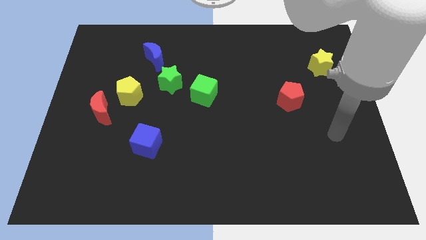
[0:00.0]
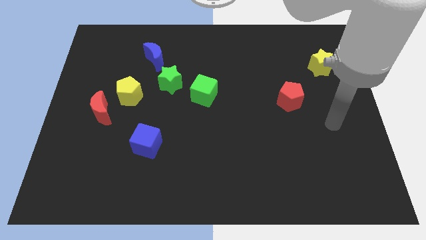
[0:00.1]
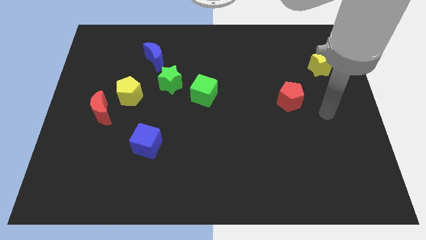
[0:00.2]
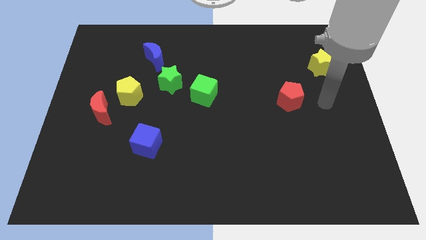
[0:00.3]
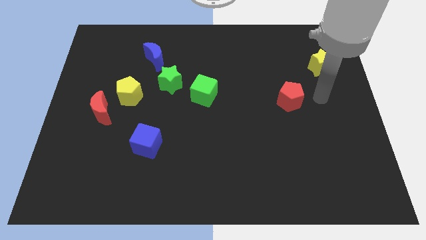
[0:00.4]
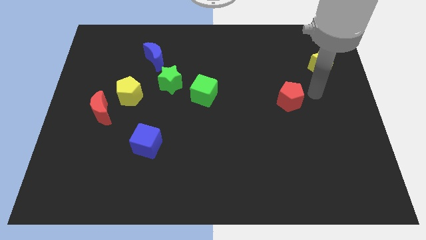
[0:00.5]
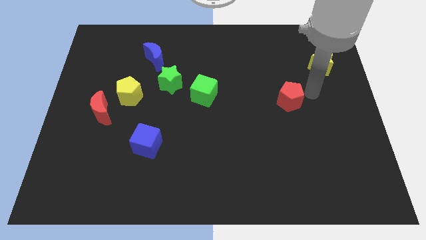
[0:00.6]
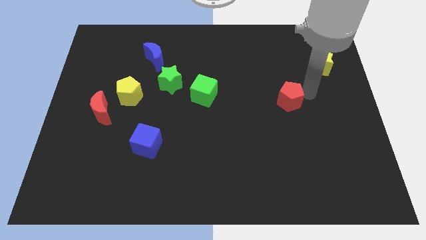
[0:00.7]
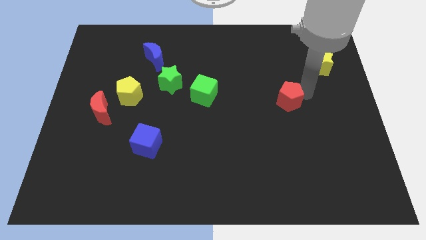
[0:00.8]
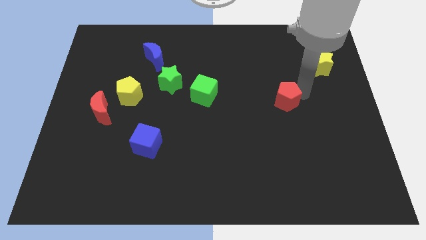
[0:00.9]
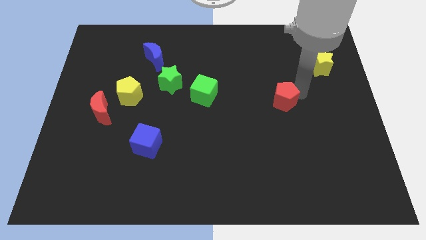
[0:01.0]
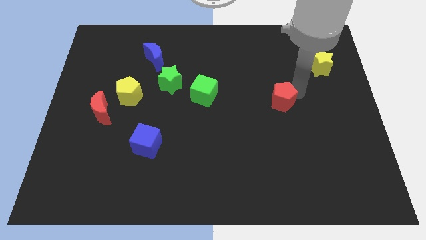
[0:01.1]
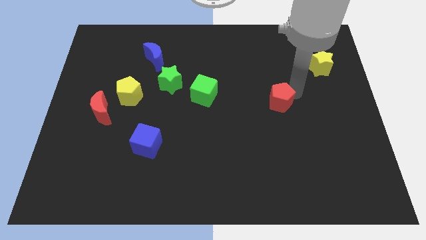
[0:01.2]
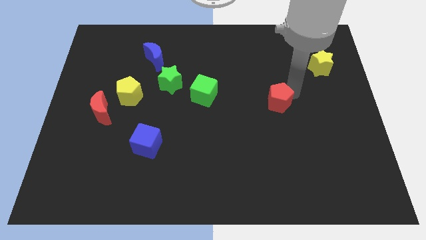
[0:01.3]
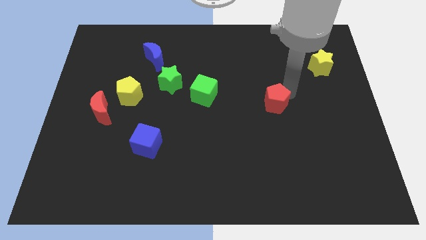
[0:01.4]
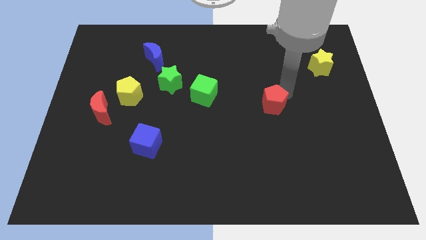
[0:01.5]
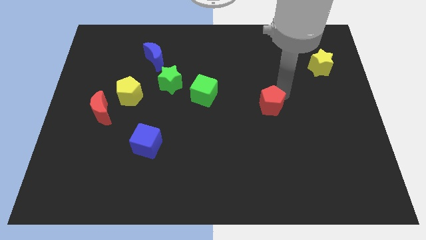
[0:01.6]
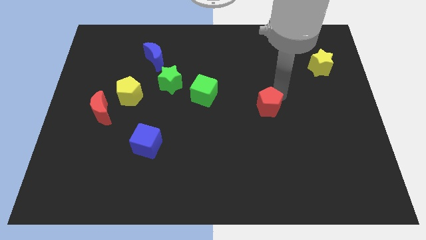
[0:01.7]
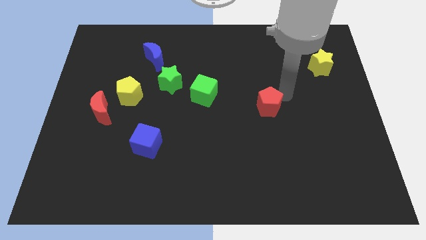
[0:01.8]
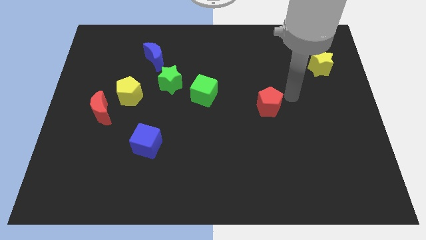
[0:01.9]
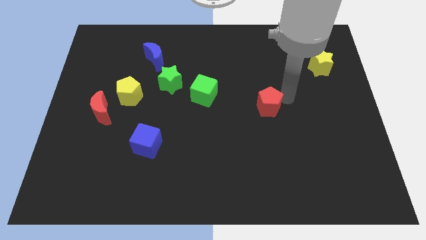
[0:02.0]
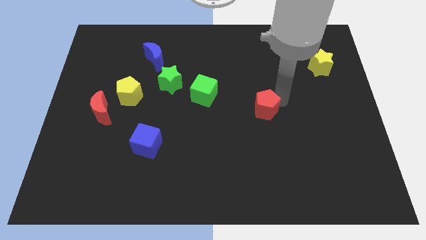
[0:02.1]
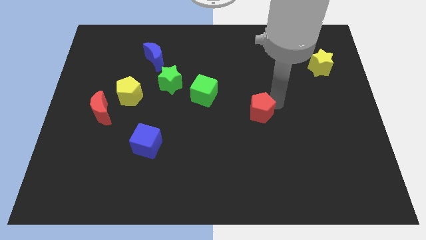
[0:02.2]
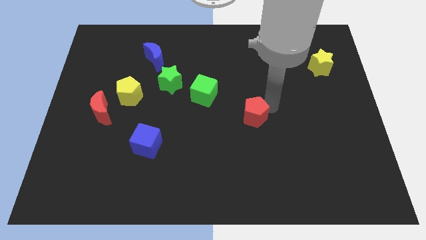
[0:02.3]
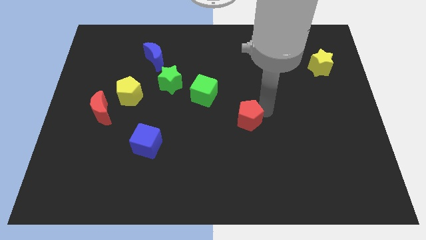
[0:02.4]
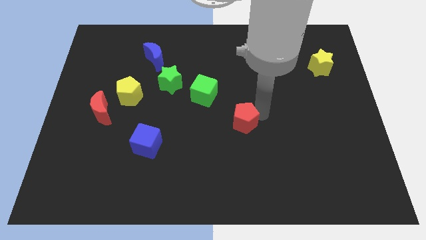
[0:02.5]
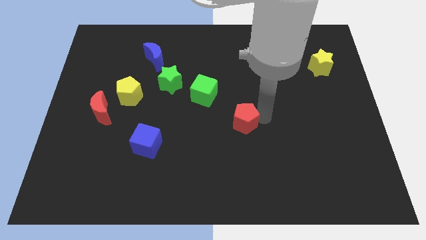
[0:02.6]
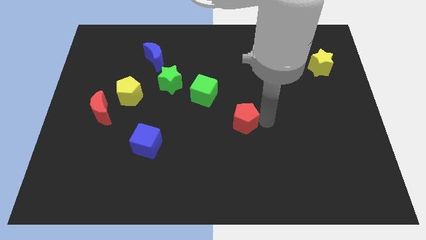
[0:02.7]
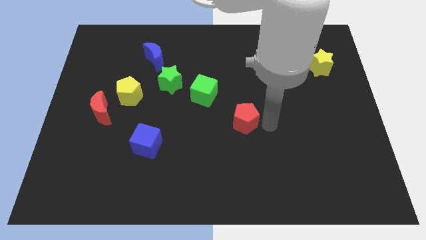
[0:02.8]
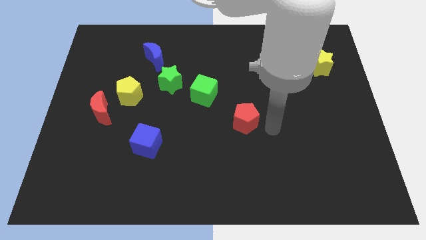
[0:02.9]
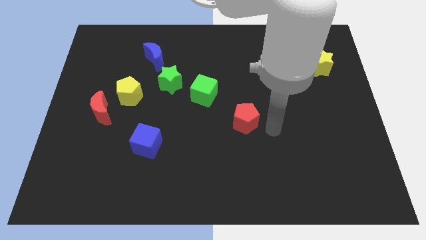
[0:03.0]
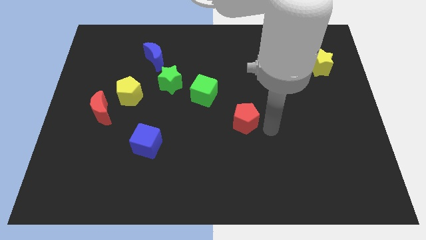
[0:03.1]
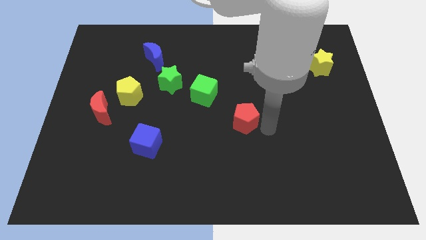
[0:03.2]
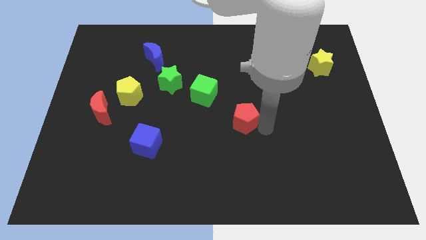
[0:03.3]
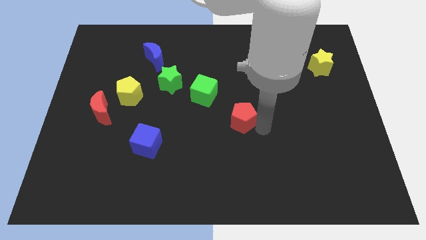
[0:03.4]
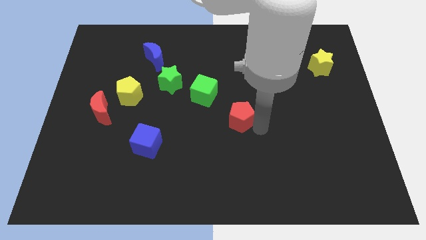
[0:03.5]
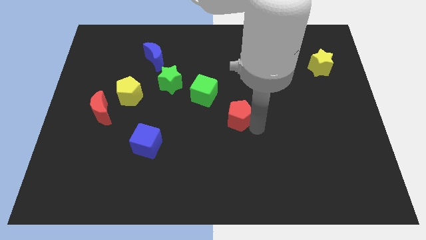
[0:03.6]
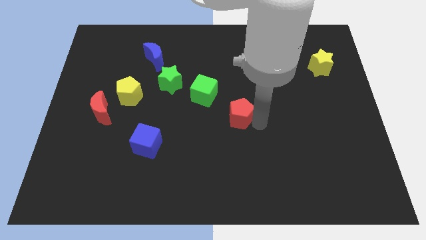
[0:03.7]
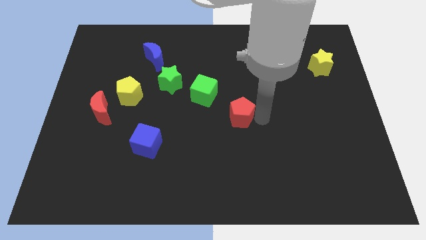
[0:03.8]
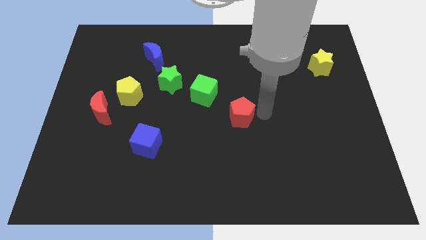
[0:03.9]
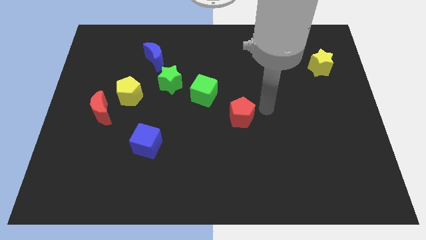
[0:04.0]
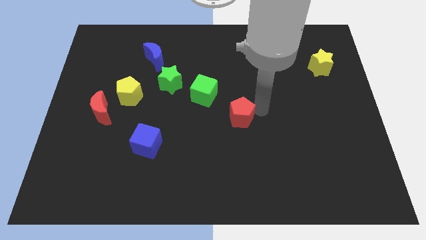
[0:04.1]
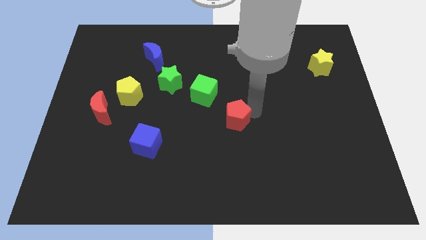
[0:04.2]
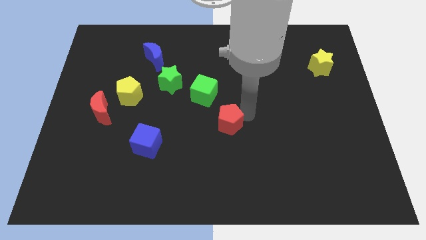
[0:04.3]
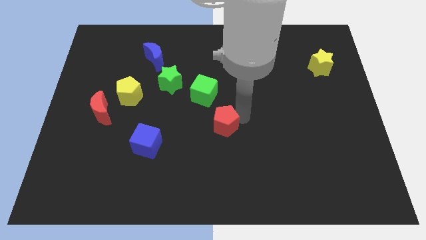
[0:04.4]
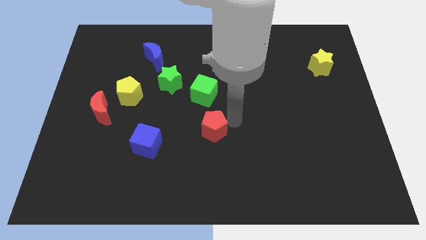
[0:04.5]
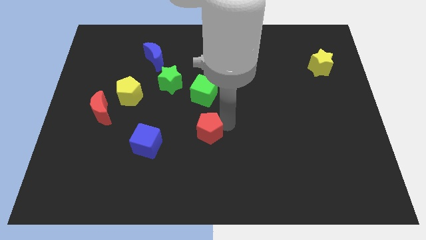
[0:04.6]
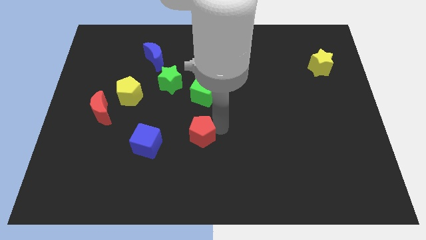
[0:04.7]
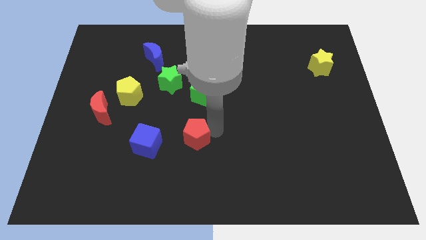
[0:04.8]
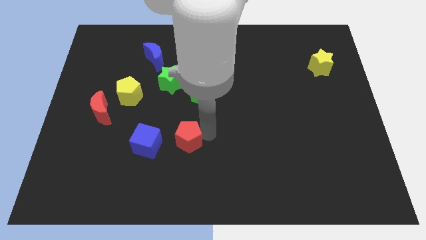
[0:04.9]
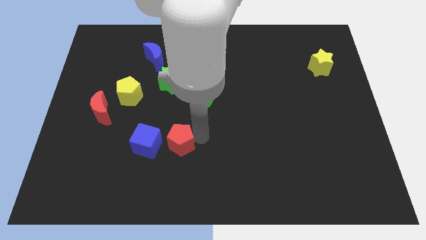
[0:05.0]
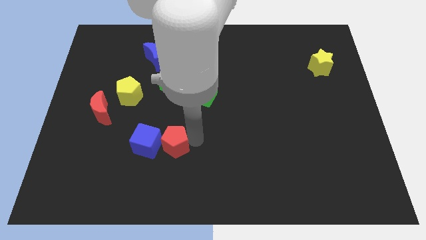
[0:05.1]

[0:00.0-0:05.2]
slide the red pentagon close to the blue cube

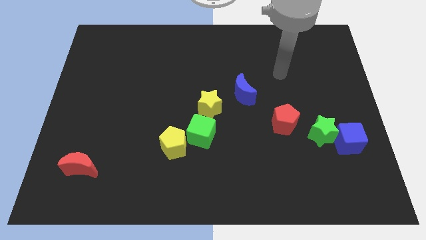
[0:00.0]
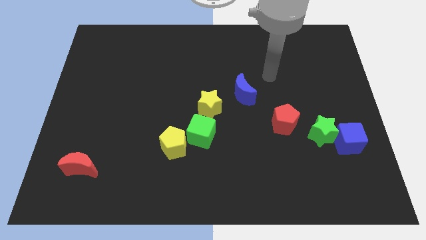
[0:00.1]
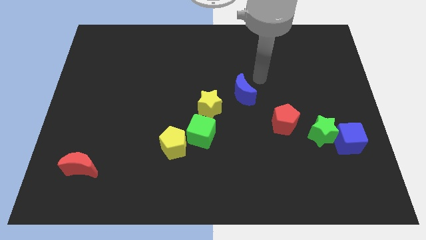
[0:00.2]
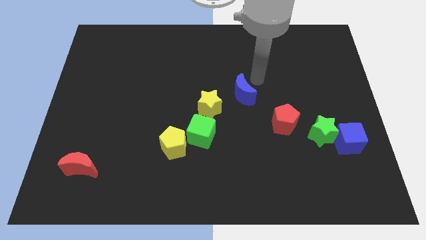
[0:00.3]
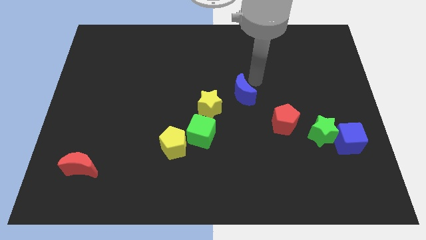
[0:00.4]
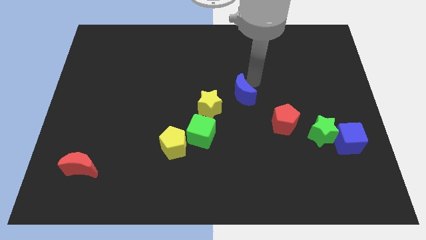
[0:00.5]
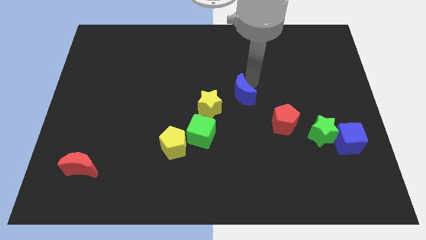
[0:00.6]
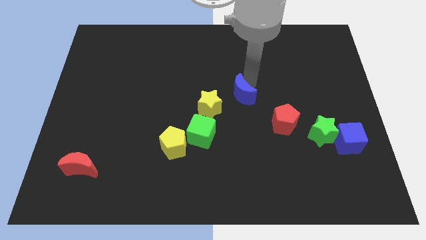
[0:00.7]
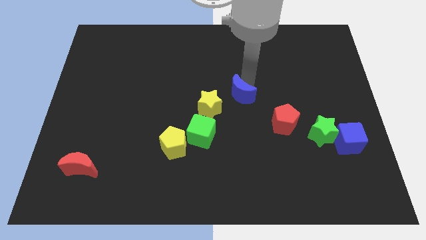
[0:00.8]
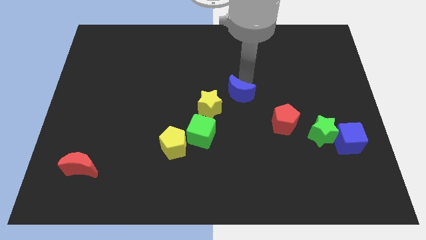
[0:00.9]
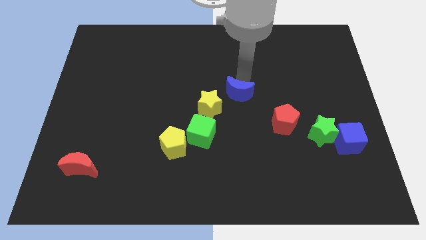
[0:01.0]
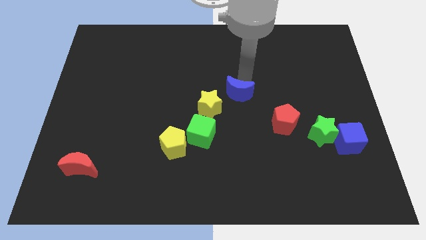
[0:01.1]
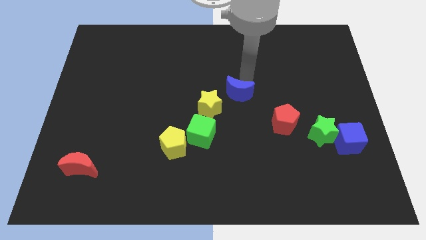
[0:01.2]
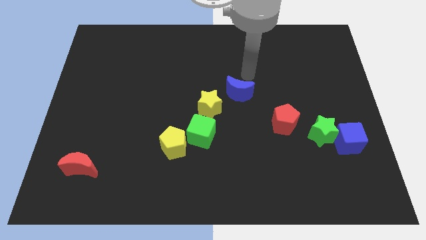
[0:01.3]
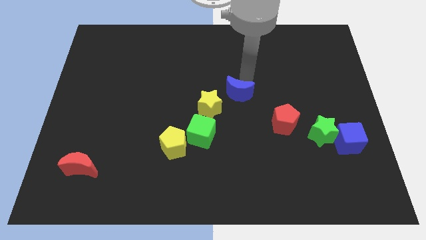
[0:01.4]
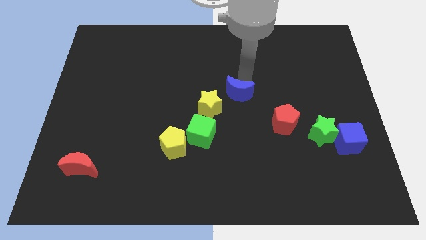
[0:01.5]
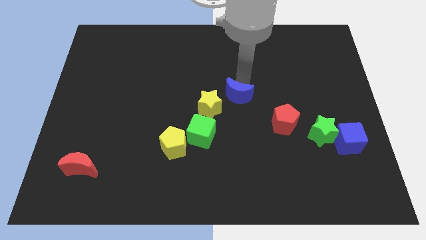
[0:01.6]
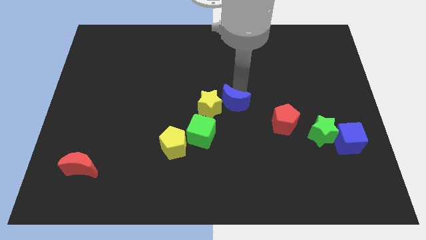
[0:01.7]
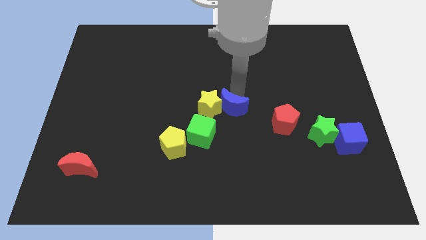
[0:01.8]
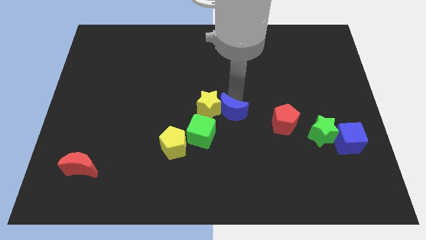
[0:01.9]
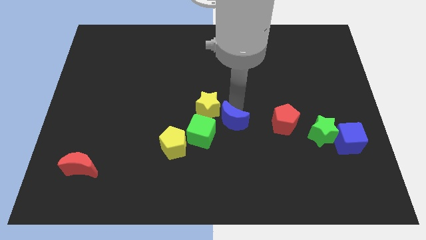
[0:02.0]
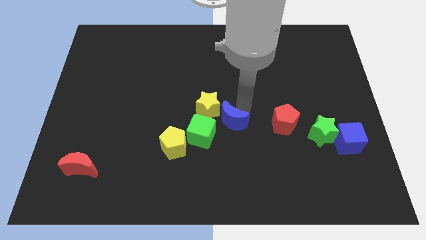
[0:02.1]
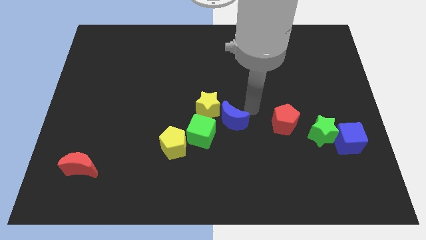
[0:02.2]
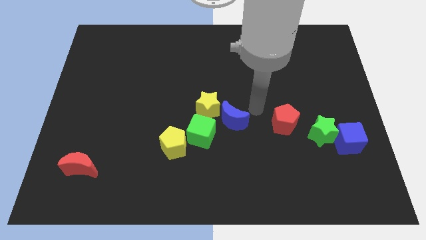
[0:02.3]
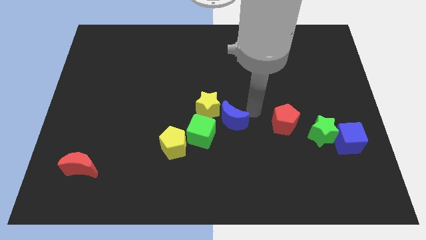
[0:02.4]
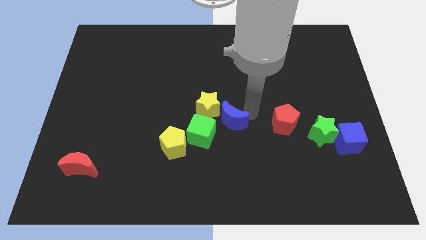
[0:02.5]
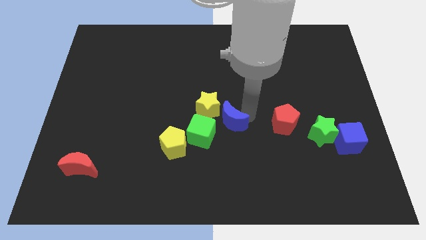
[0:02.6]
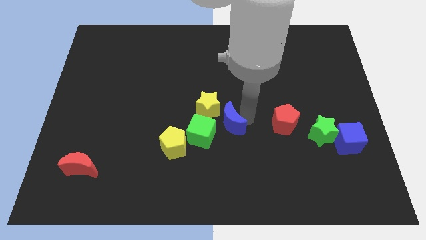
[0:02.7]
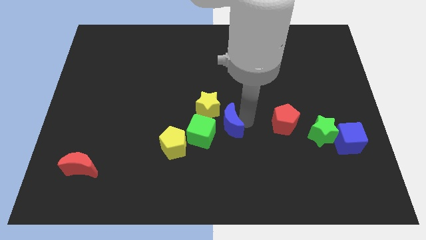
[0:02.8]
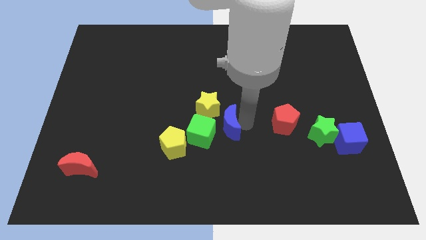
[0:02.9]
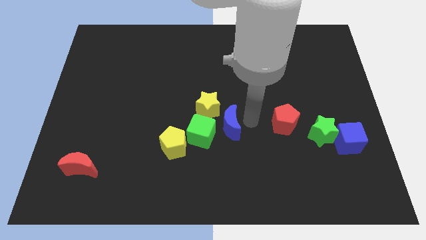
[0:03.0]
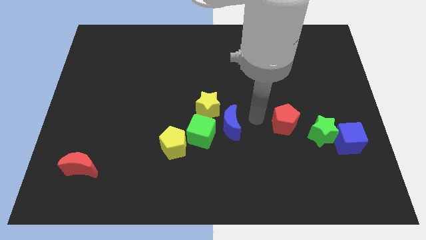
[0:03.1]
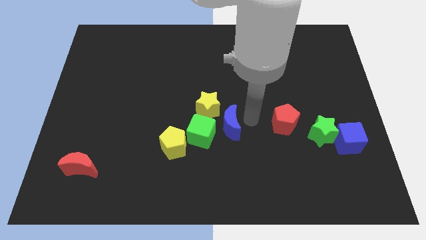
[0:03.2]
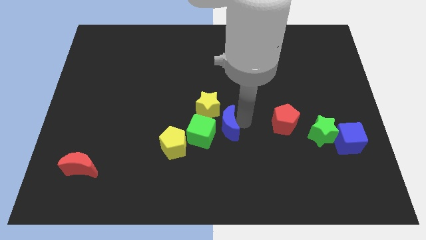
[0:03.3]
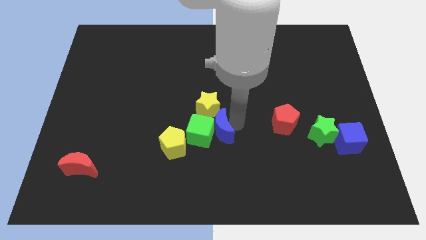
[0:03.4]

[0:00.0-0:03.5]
push the blue moon to the green cube
